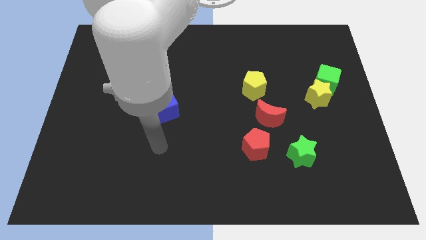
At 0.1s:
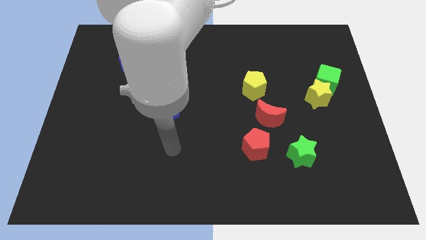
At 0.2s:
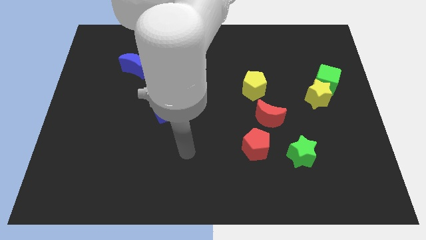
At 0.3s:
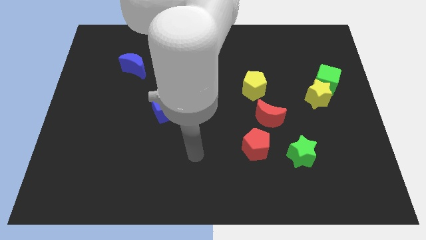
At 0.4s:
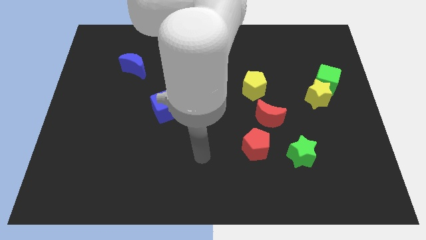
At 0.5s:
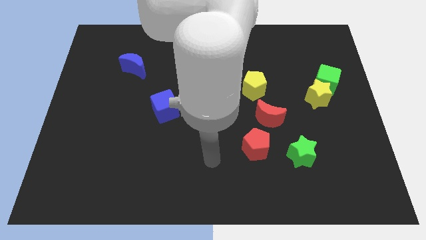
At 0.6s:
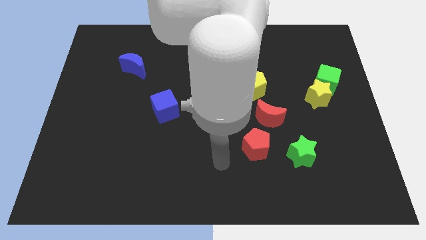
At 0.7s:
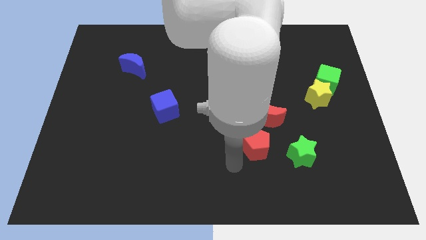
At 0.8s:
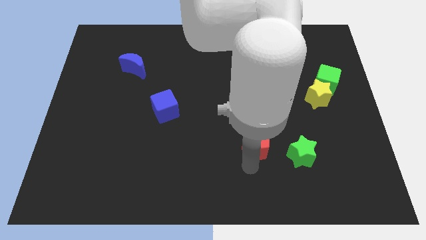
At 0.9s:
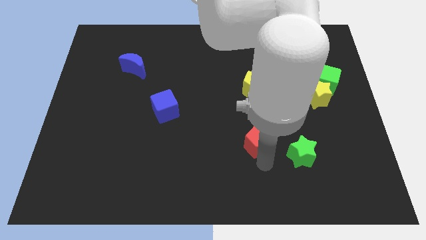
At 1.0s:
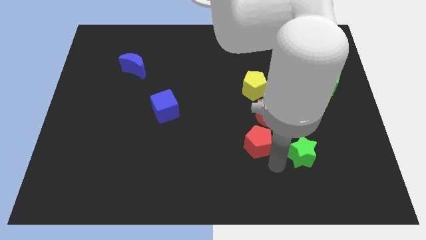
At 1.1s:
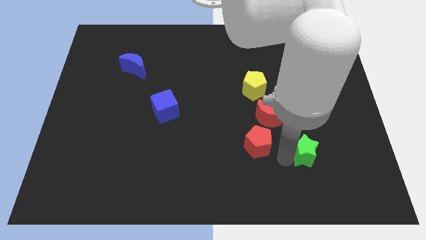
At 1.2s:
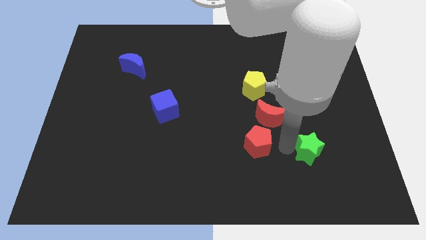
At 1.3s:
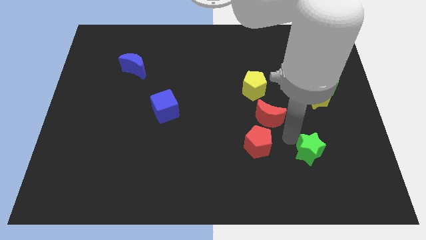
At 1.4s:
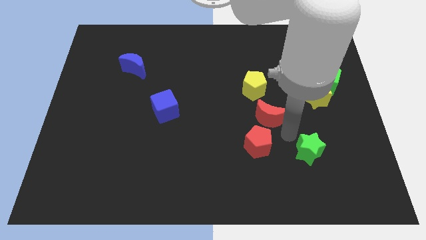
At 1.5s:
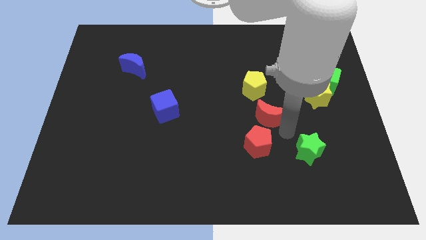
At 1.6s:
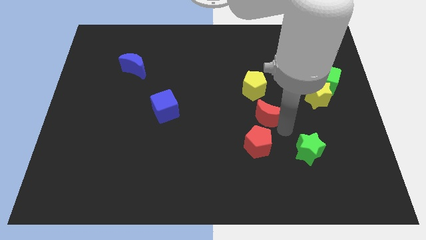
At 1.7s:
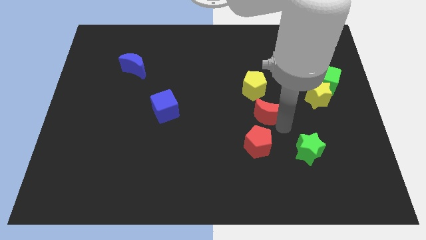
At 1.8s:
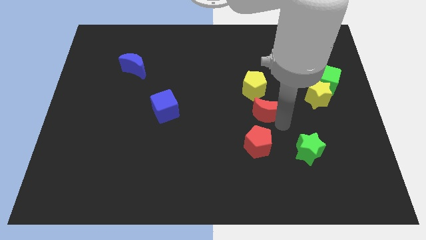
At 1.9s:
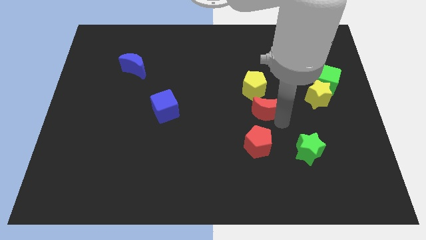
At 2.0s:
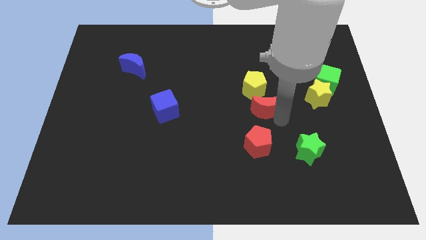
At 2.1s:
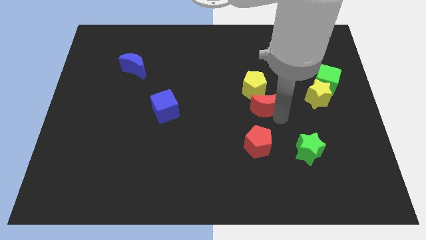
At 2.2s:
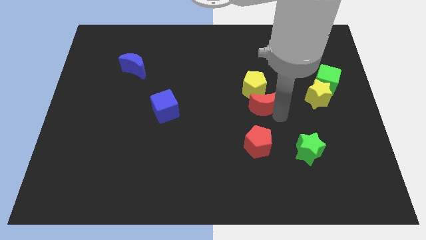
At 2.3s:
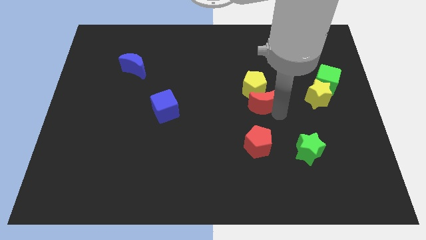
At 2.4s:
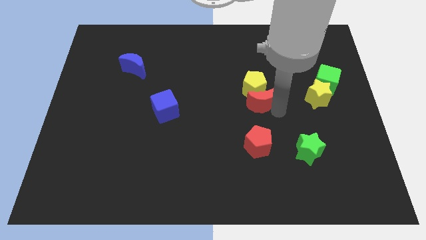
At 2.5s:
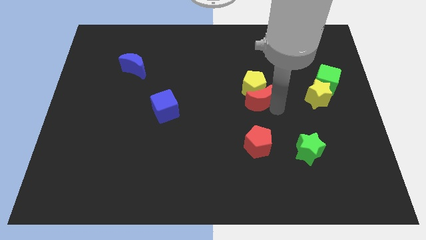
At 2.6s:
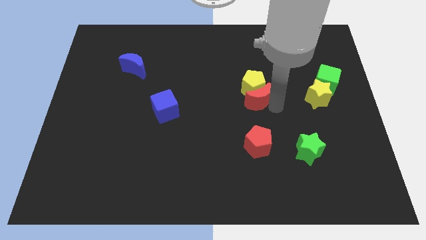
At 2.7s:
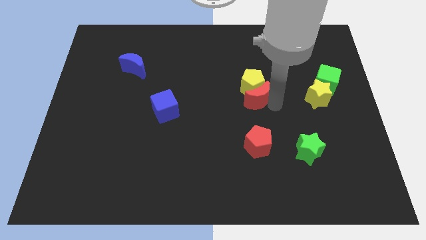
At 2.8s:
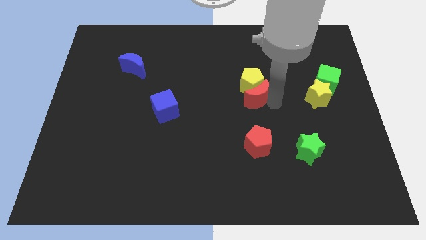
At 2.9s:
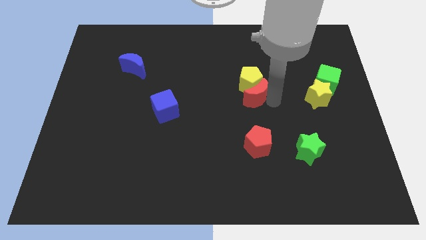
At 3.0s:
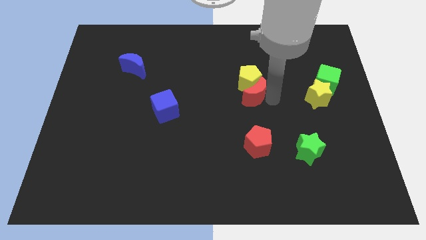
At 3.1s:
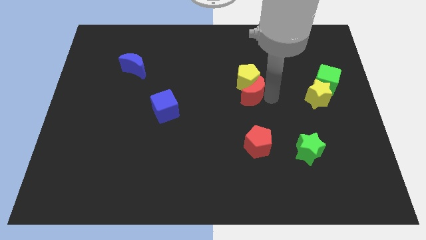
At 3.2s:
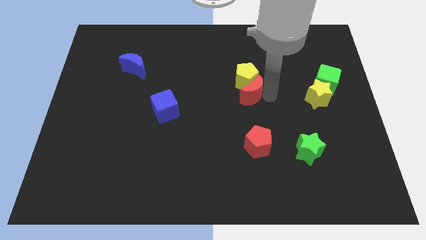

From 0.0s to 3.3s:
push the red moon somewhat diagonally up and to the left

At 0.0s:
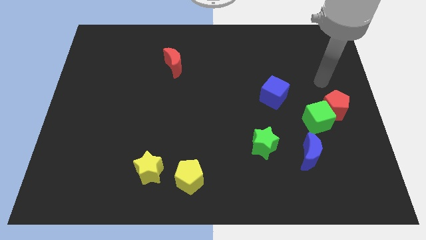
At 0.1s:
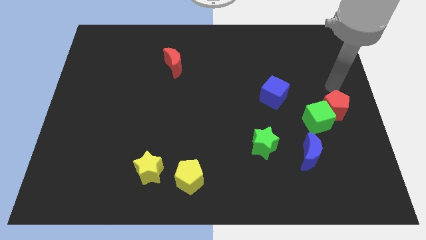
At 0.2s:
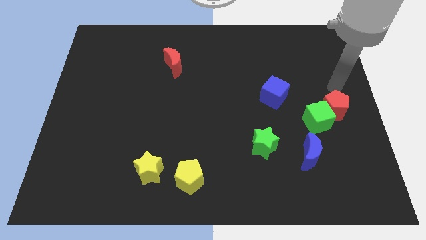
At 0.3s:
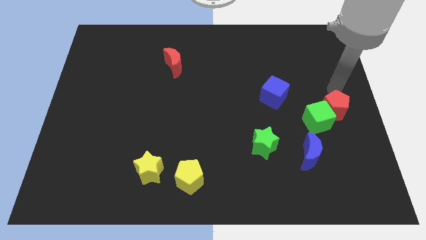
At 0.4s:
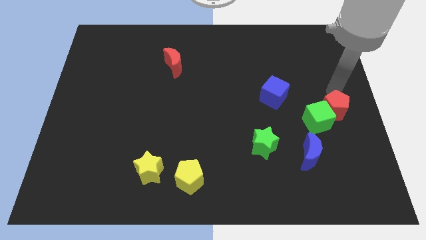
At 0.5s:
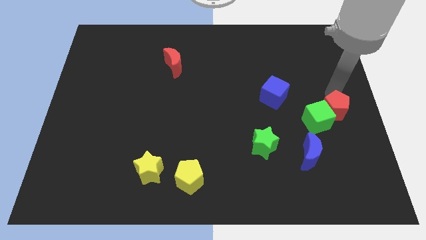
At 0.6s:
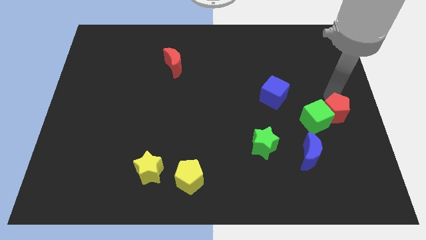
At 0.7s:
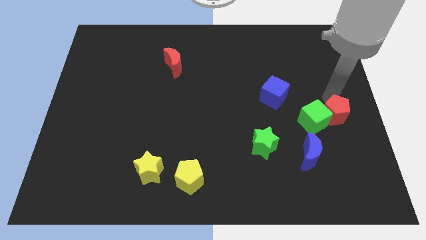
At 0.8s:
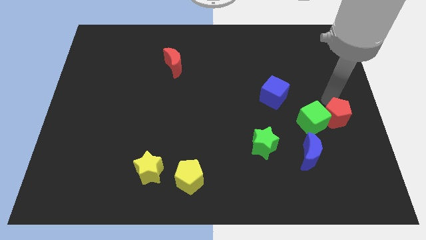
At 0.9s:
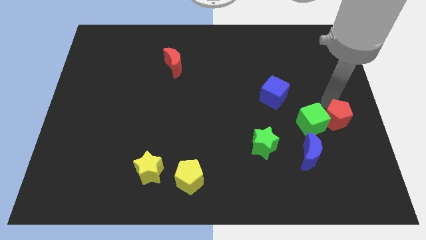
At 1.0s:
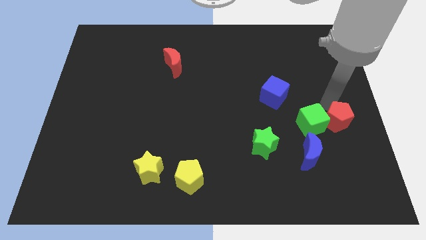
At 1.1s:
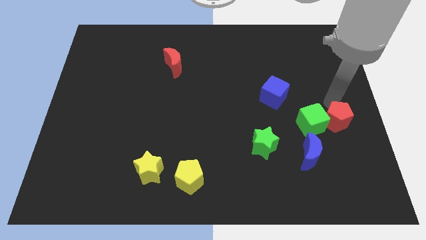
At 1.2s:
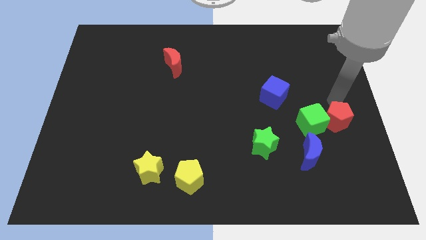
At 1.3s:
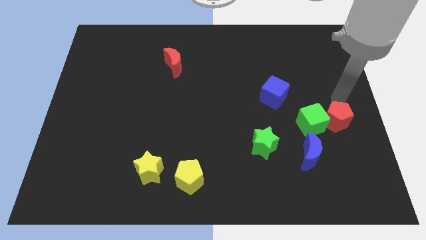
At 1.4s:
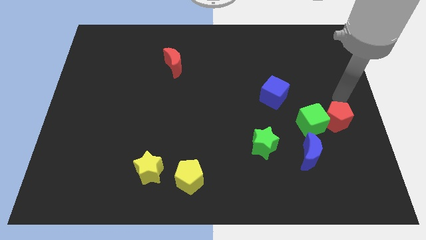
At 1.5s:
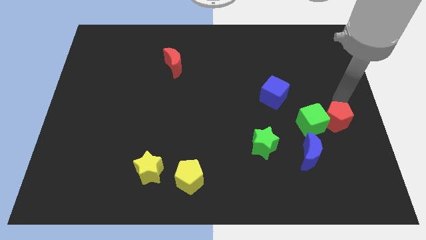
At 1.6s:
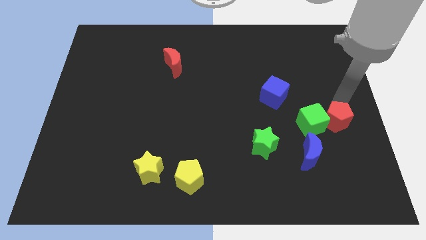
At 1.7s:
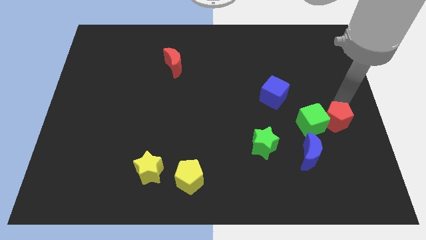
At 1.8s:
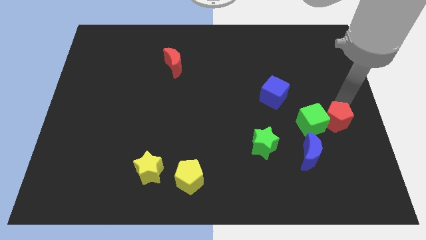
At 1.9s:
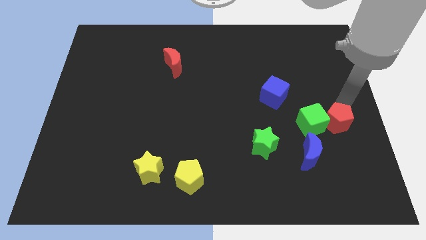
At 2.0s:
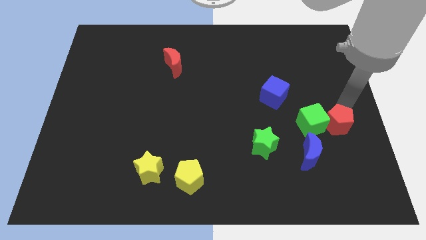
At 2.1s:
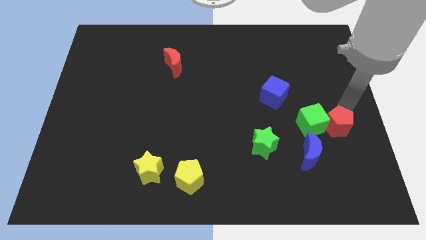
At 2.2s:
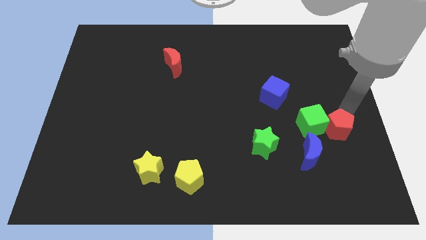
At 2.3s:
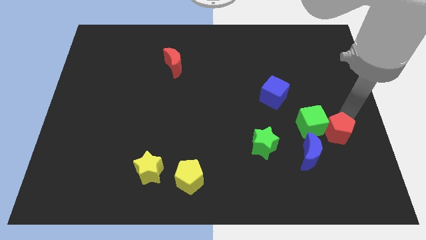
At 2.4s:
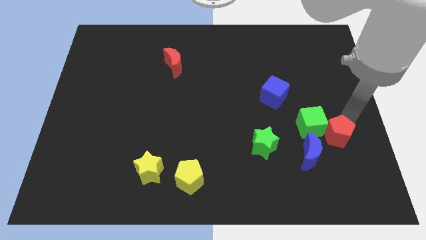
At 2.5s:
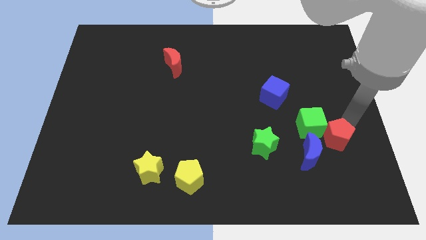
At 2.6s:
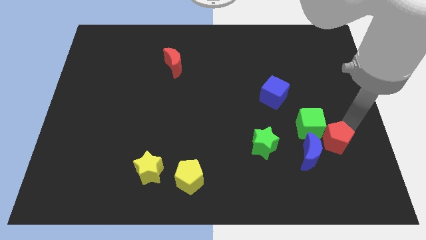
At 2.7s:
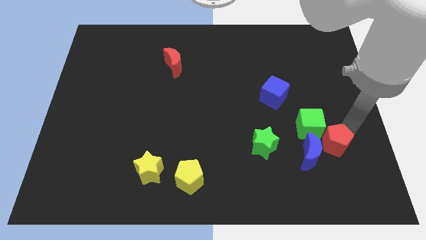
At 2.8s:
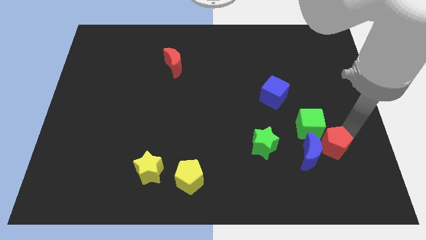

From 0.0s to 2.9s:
slightly move the red pentagon downwards and then left

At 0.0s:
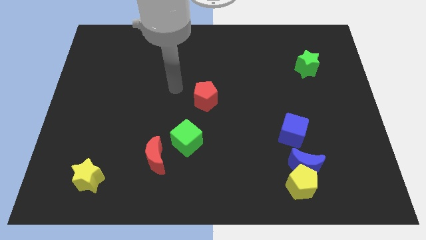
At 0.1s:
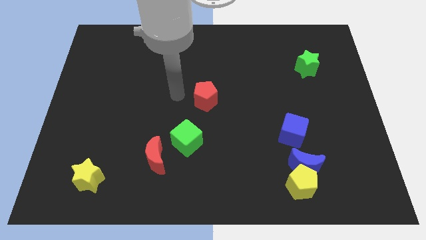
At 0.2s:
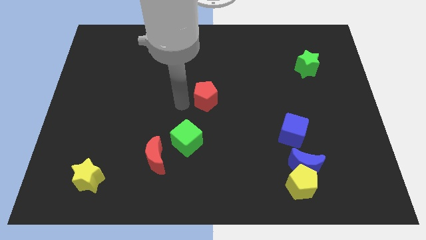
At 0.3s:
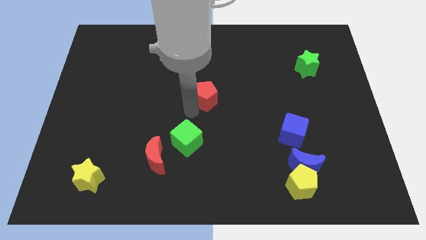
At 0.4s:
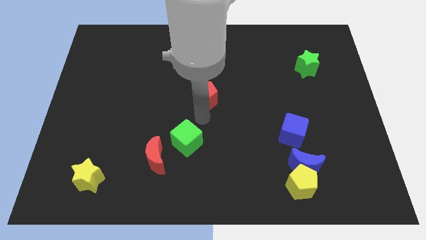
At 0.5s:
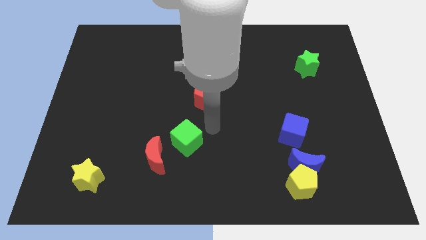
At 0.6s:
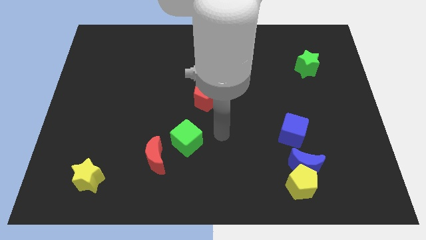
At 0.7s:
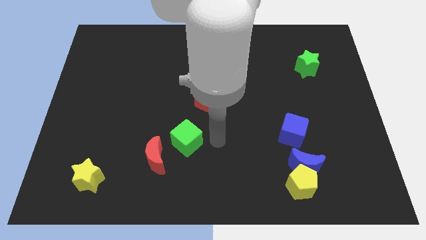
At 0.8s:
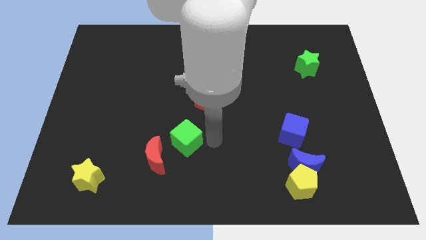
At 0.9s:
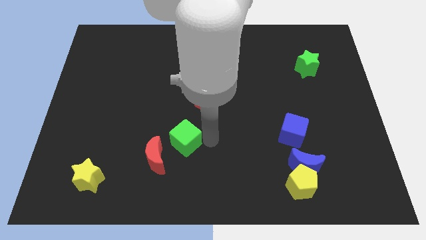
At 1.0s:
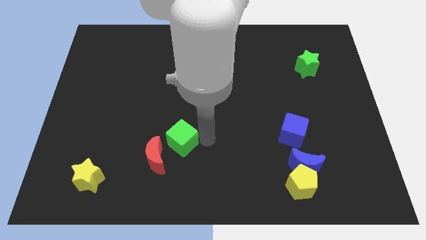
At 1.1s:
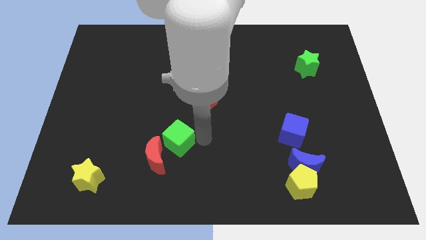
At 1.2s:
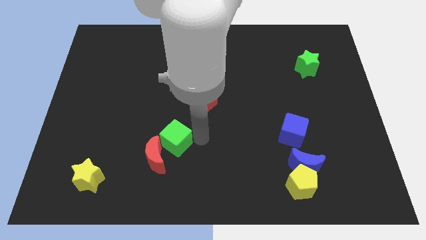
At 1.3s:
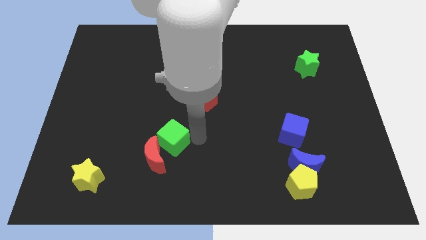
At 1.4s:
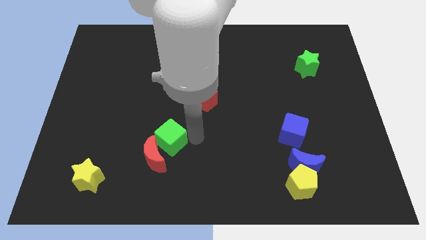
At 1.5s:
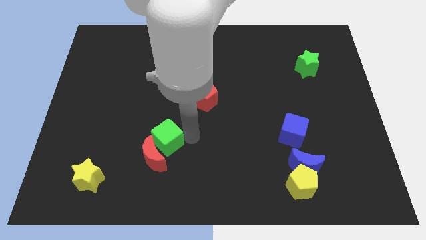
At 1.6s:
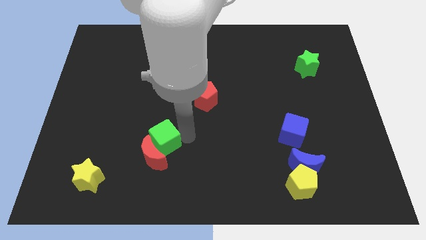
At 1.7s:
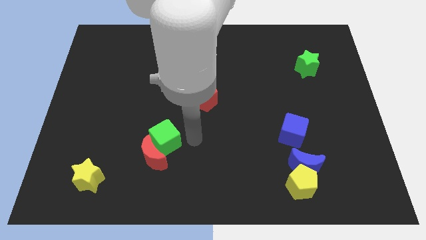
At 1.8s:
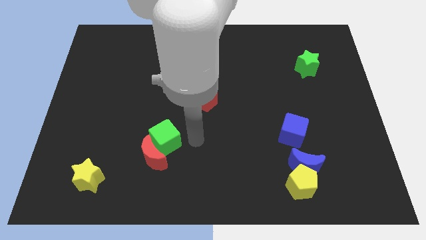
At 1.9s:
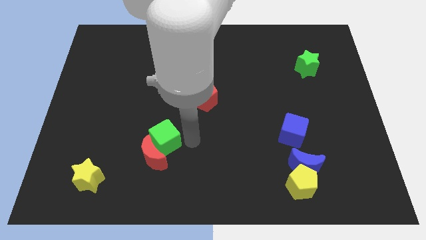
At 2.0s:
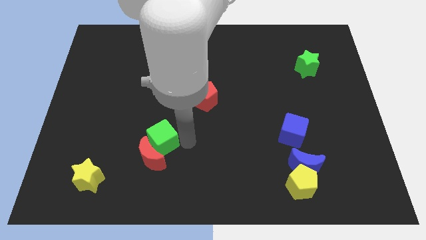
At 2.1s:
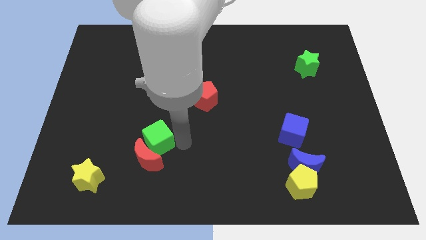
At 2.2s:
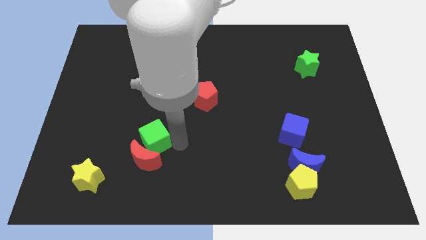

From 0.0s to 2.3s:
slide the green cube somewhat to the left
